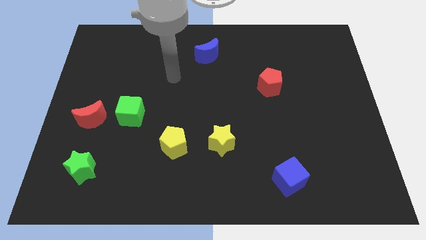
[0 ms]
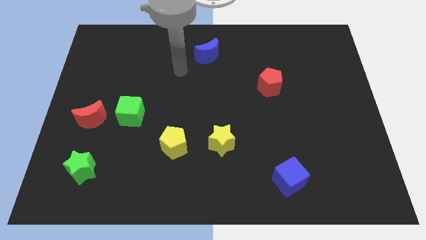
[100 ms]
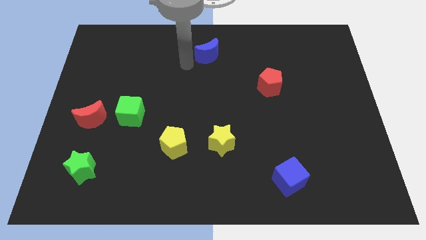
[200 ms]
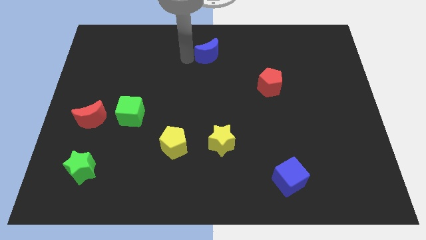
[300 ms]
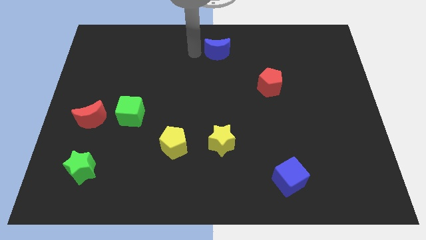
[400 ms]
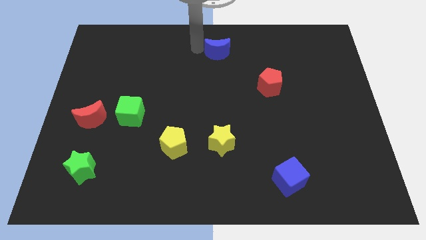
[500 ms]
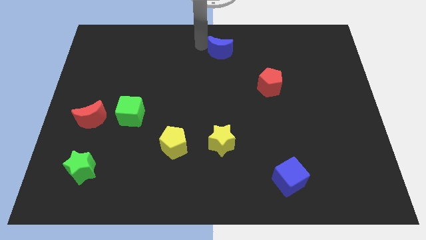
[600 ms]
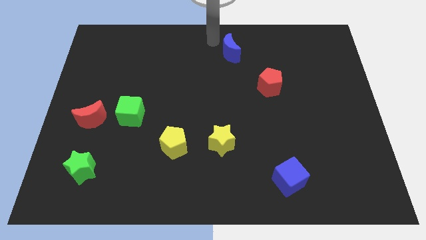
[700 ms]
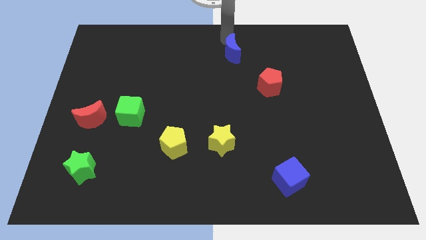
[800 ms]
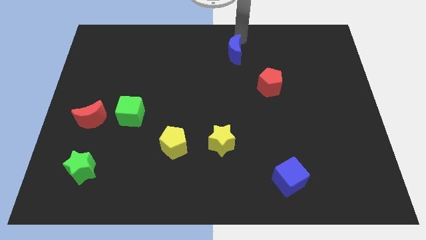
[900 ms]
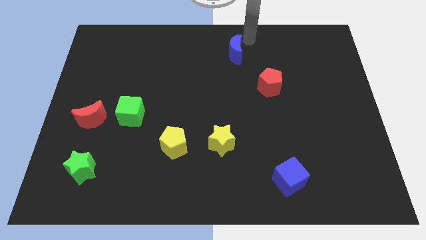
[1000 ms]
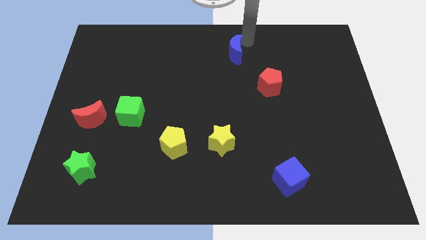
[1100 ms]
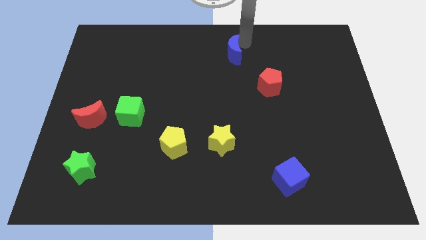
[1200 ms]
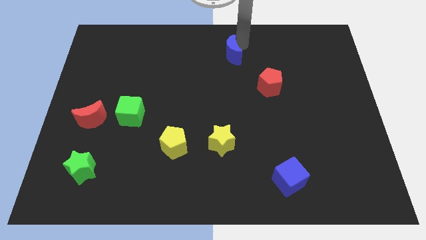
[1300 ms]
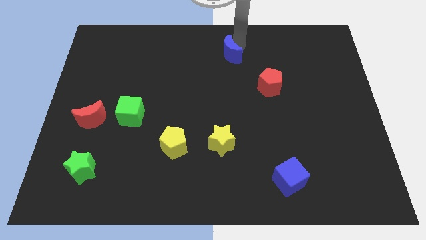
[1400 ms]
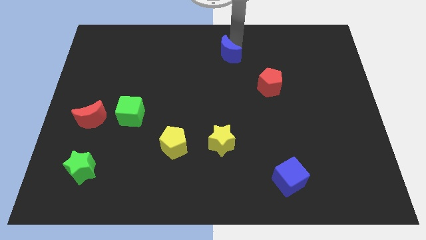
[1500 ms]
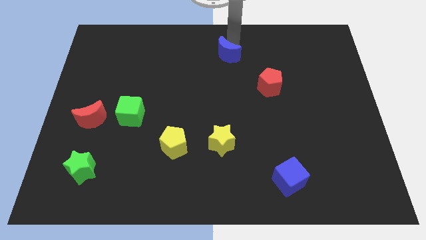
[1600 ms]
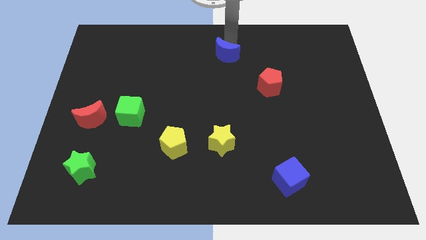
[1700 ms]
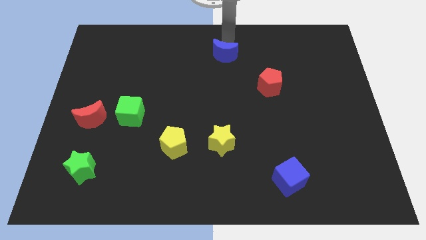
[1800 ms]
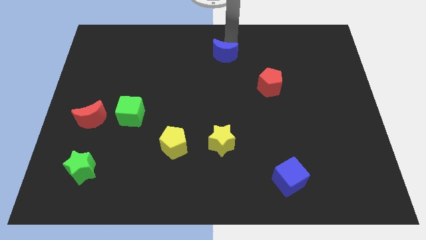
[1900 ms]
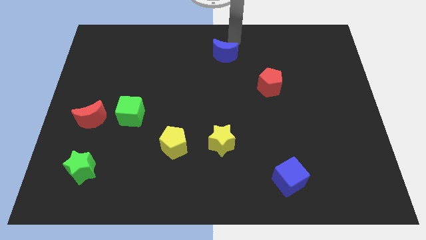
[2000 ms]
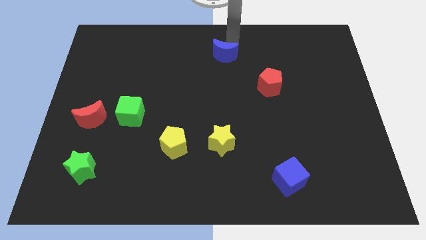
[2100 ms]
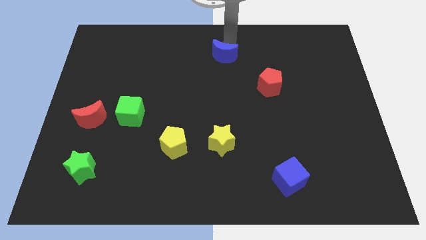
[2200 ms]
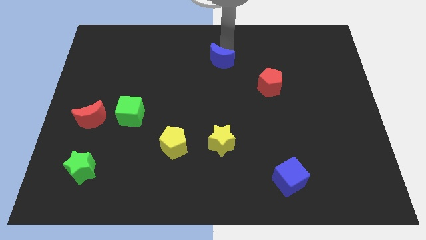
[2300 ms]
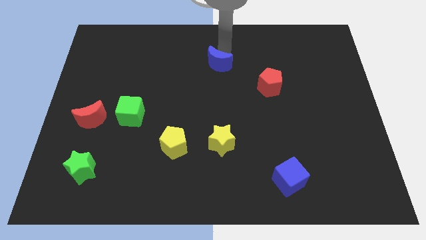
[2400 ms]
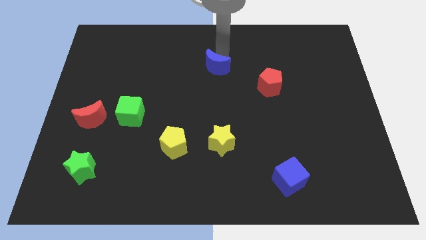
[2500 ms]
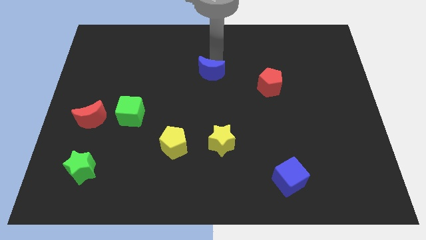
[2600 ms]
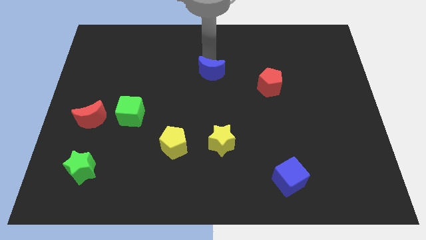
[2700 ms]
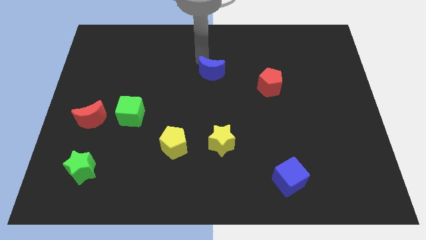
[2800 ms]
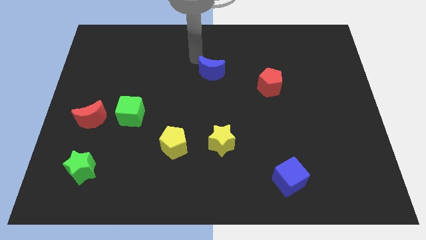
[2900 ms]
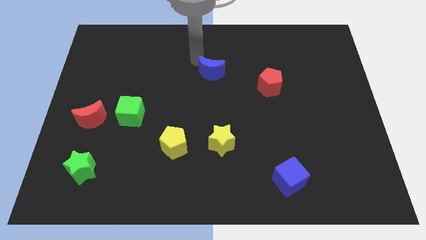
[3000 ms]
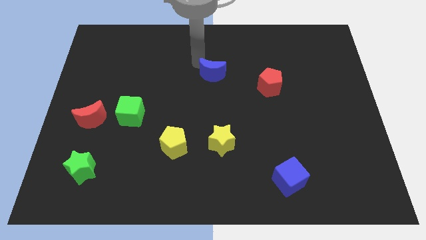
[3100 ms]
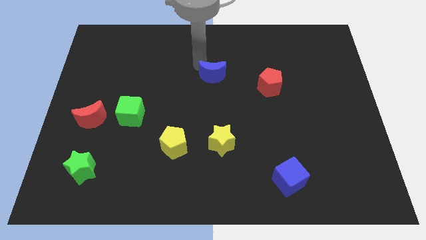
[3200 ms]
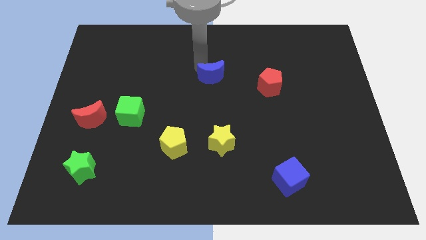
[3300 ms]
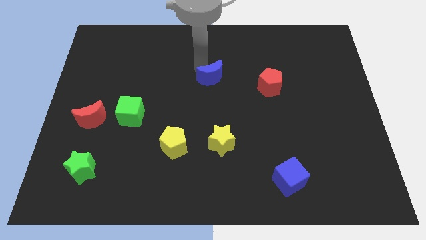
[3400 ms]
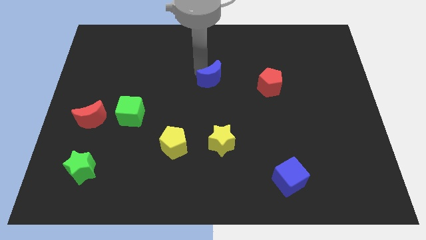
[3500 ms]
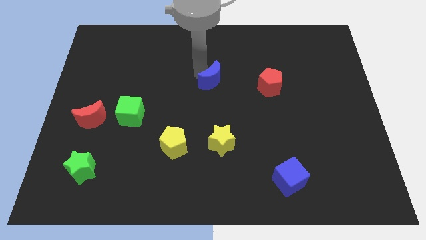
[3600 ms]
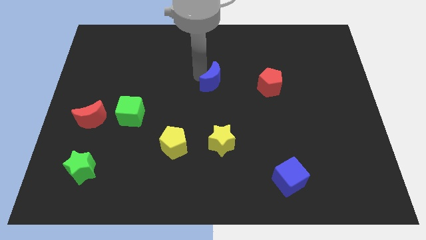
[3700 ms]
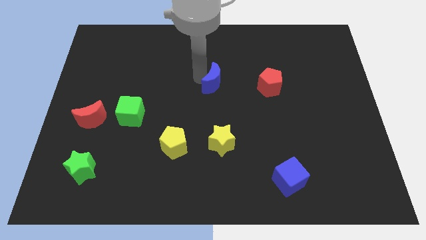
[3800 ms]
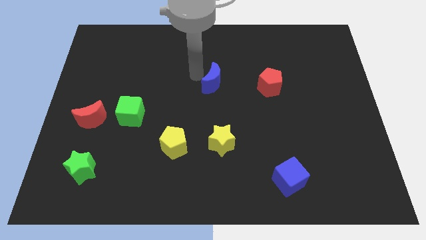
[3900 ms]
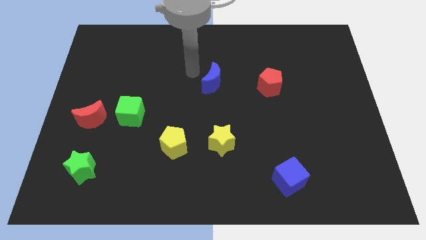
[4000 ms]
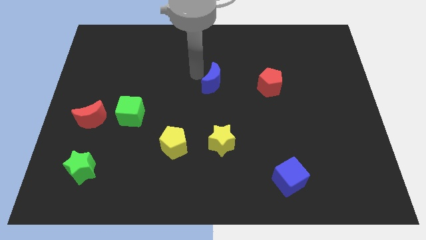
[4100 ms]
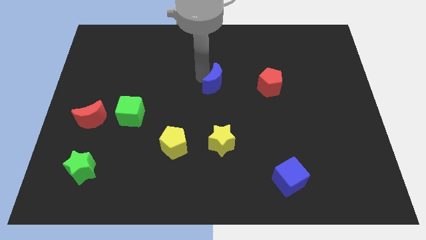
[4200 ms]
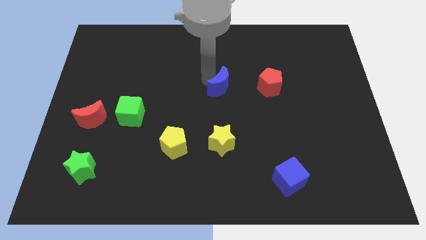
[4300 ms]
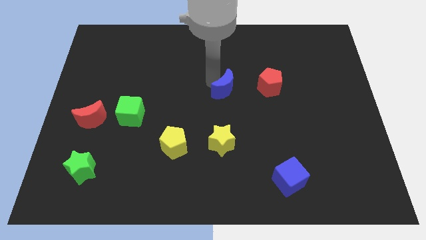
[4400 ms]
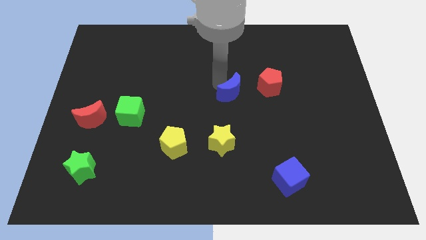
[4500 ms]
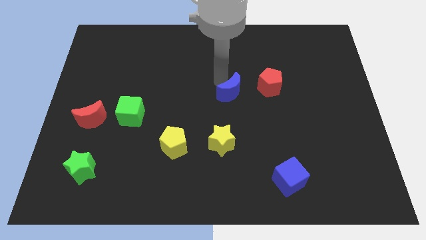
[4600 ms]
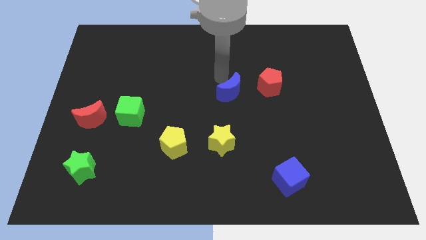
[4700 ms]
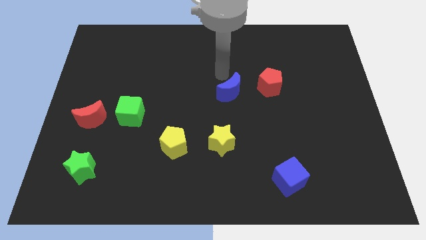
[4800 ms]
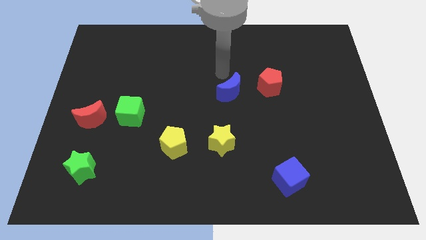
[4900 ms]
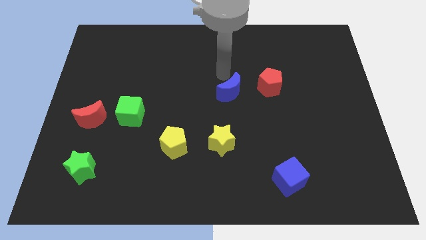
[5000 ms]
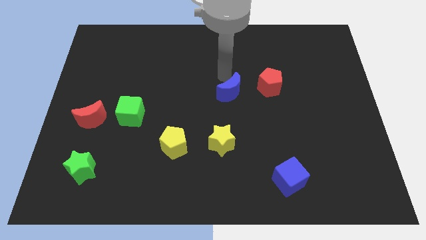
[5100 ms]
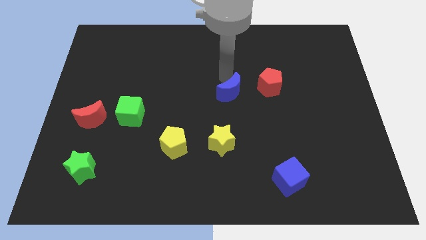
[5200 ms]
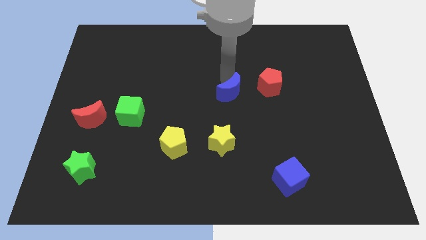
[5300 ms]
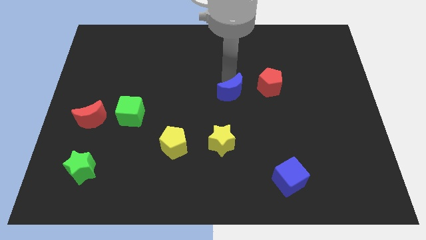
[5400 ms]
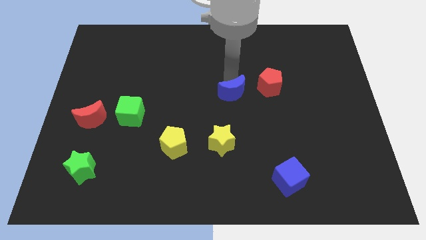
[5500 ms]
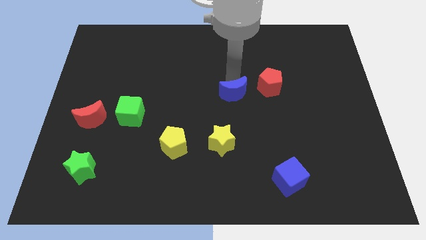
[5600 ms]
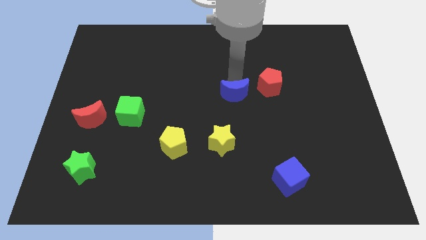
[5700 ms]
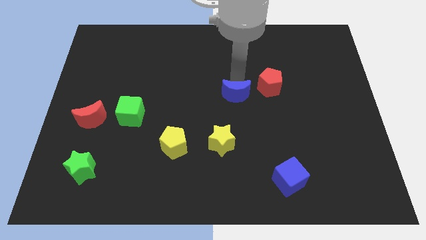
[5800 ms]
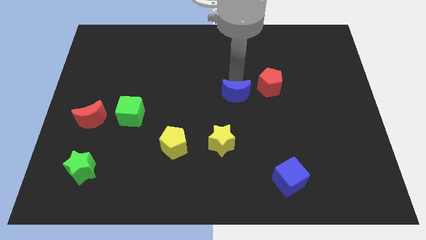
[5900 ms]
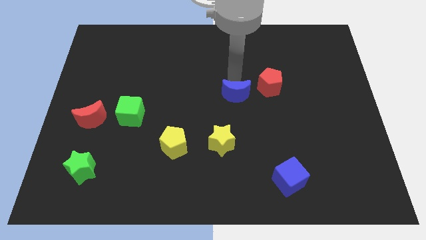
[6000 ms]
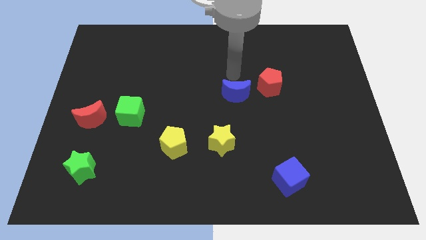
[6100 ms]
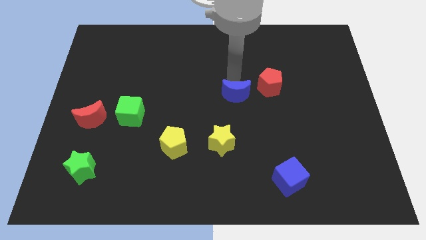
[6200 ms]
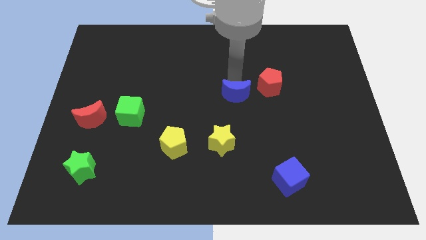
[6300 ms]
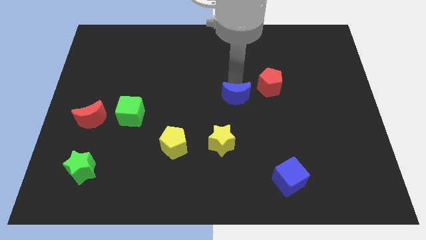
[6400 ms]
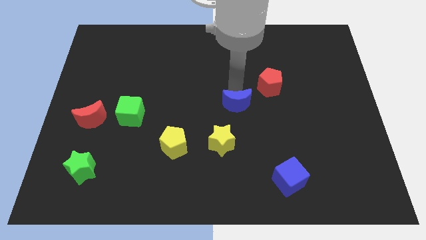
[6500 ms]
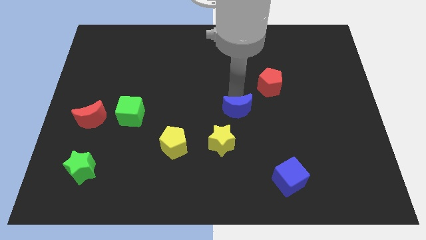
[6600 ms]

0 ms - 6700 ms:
slide the blue moon to the top right of the yellow star

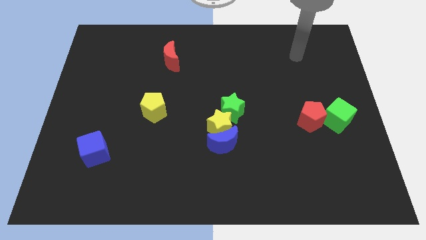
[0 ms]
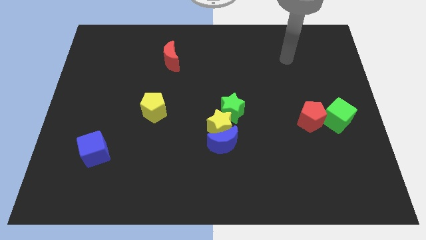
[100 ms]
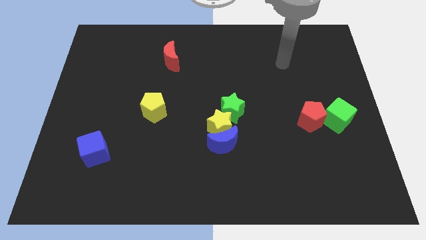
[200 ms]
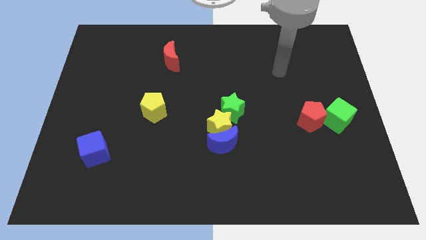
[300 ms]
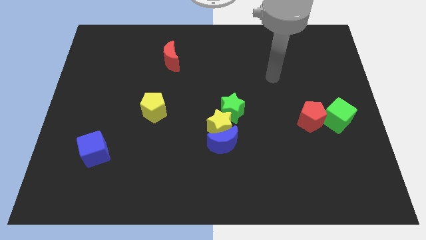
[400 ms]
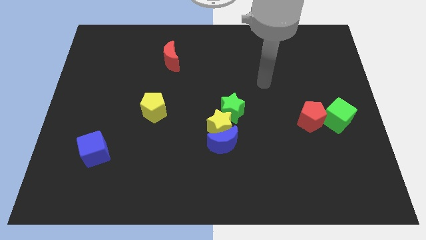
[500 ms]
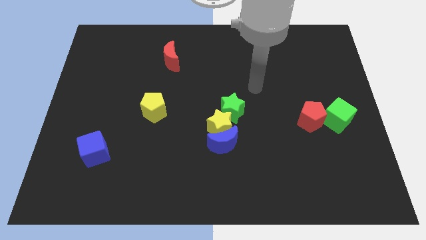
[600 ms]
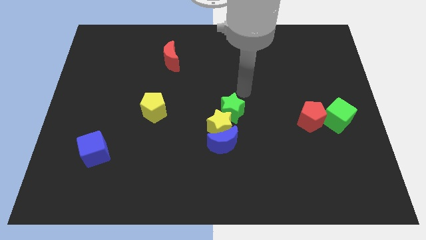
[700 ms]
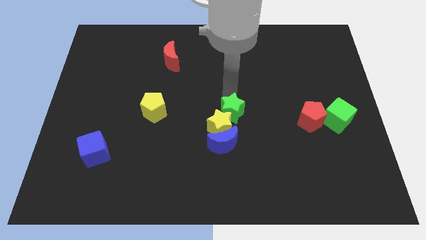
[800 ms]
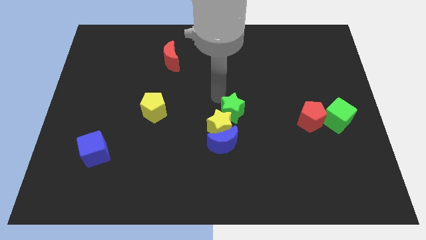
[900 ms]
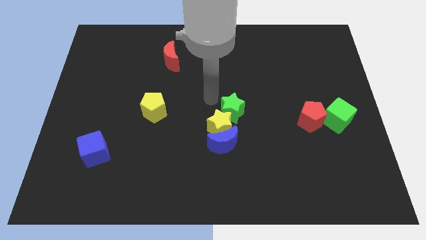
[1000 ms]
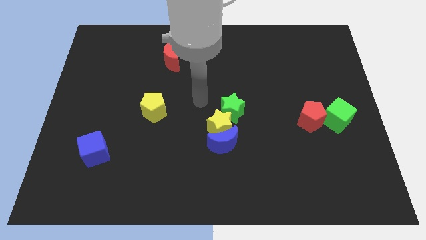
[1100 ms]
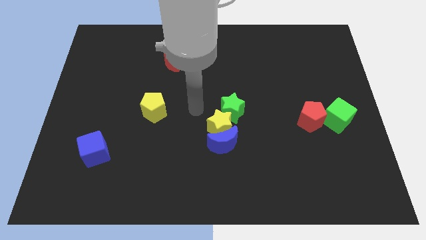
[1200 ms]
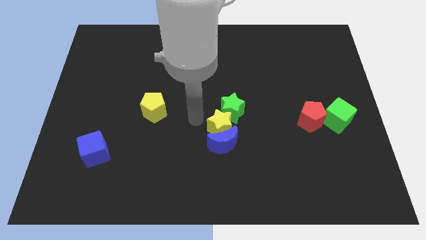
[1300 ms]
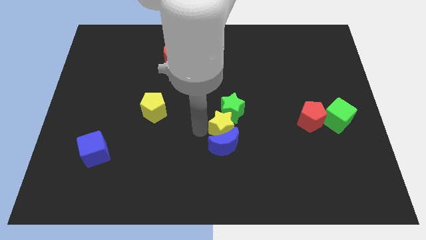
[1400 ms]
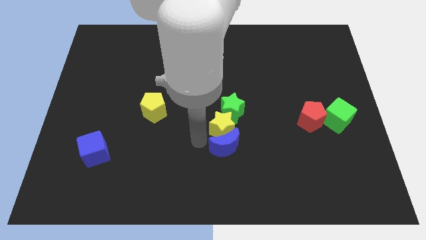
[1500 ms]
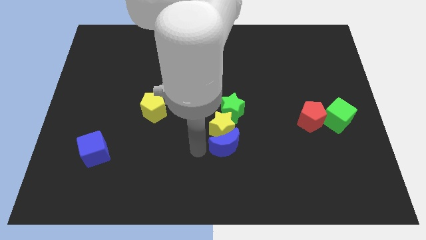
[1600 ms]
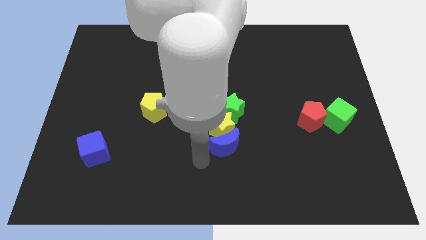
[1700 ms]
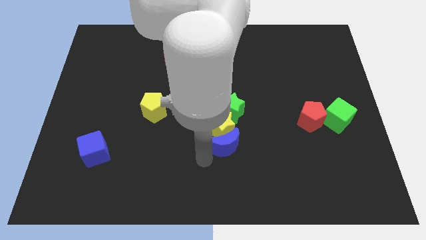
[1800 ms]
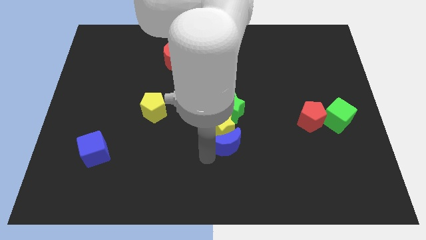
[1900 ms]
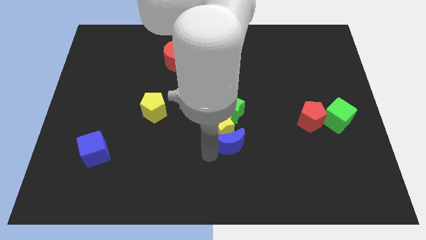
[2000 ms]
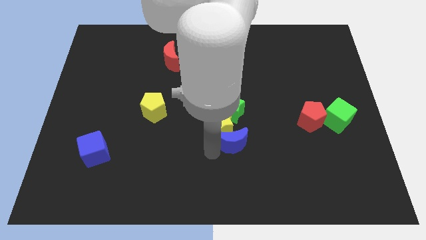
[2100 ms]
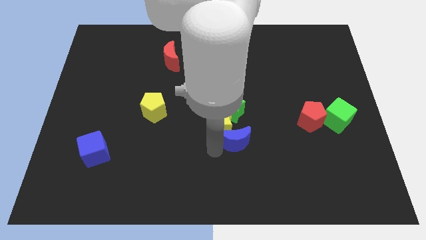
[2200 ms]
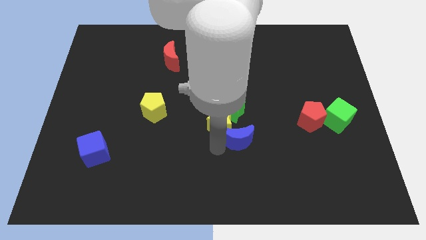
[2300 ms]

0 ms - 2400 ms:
push the blue moon to the bottom right of the green star
